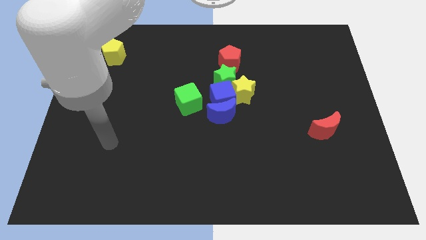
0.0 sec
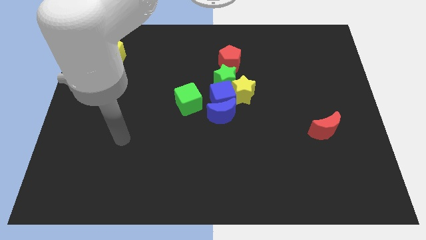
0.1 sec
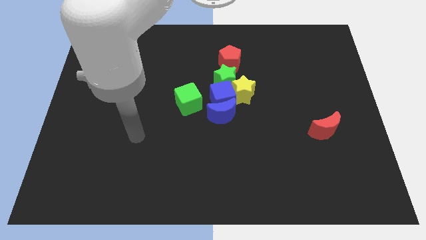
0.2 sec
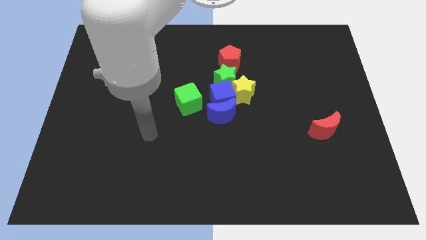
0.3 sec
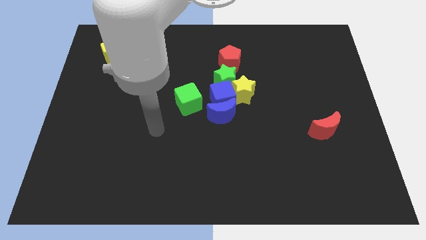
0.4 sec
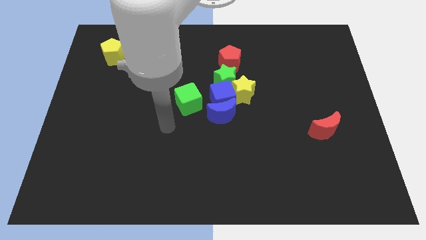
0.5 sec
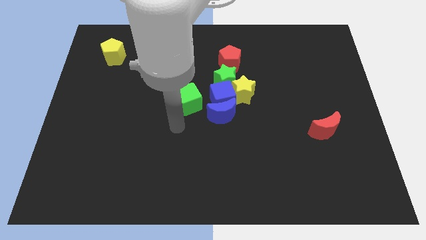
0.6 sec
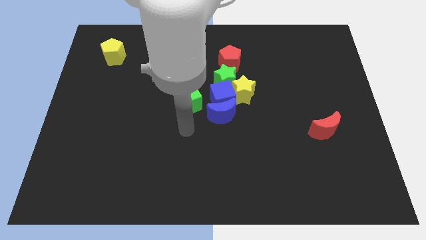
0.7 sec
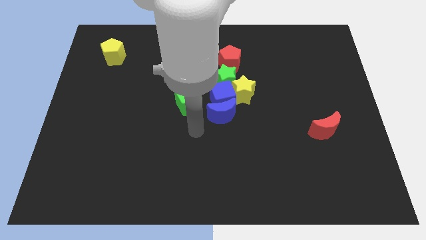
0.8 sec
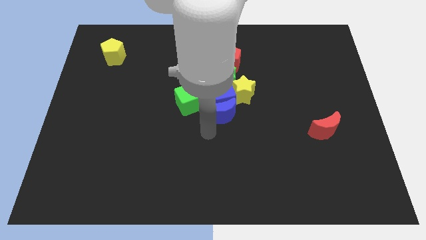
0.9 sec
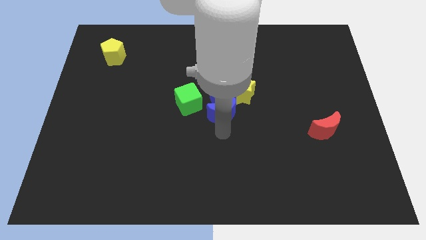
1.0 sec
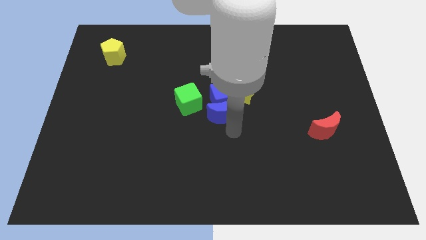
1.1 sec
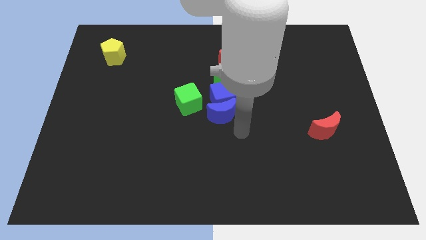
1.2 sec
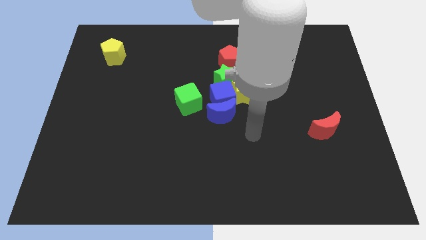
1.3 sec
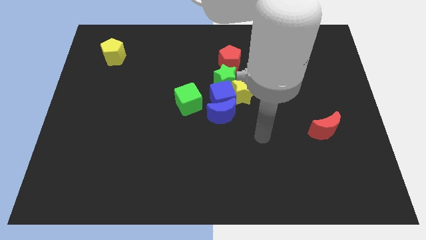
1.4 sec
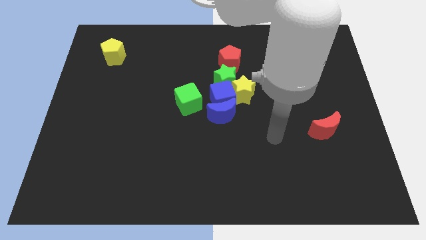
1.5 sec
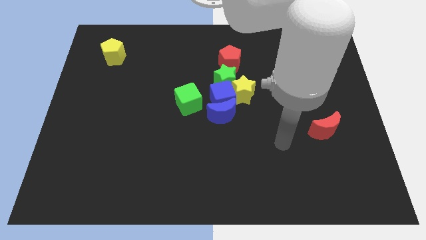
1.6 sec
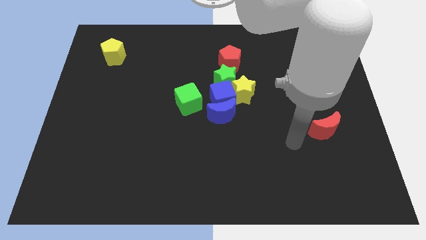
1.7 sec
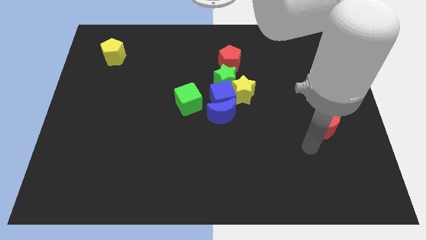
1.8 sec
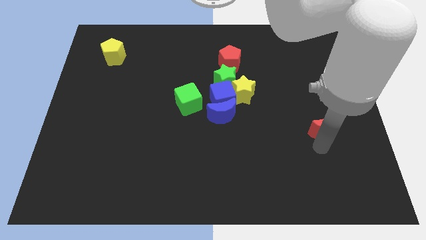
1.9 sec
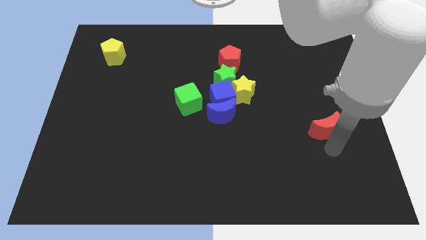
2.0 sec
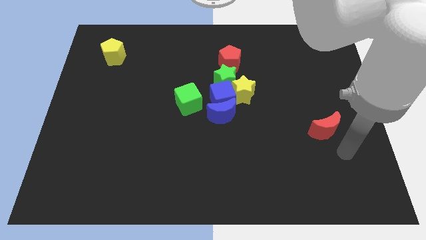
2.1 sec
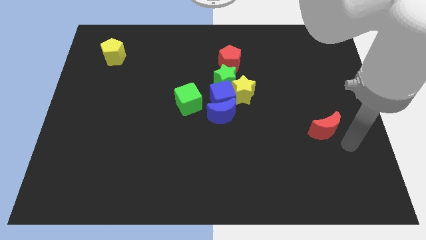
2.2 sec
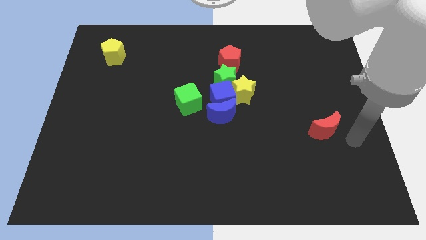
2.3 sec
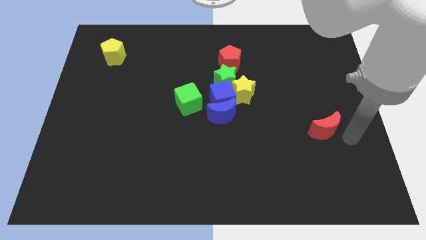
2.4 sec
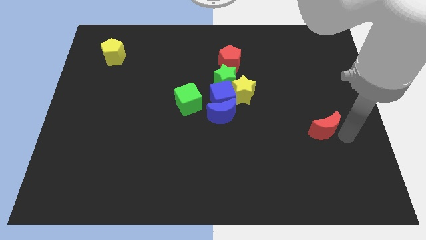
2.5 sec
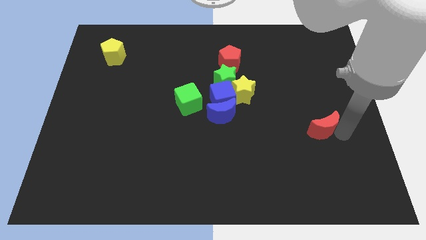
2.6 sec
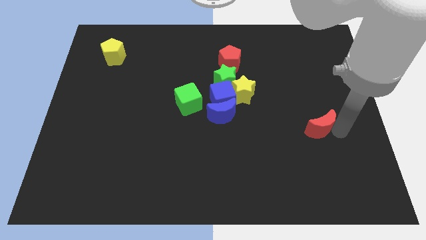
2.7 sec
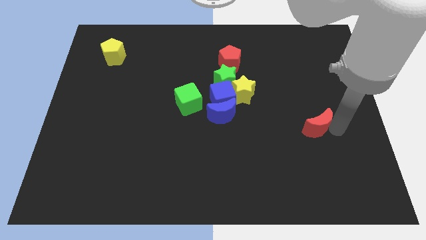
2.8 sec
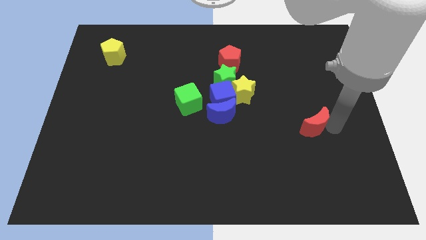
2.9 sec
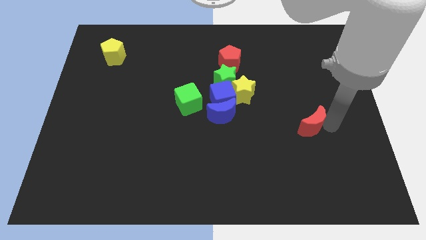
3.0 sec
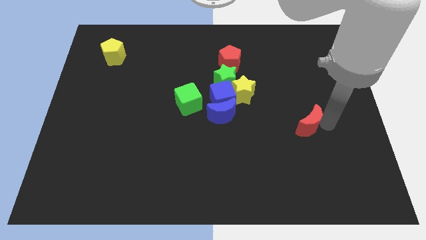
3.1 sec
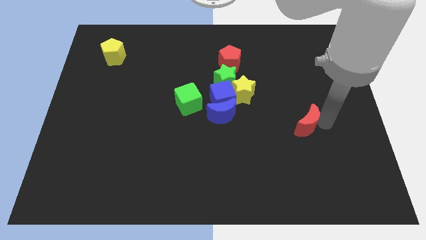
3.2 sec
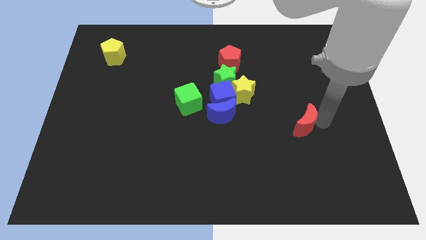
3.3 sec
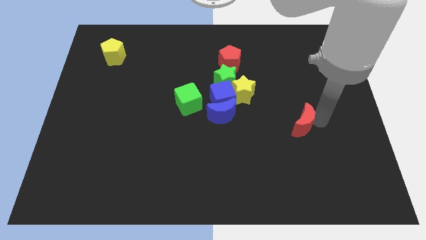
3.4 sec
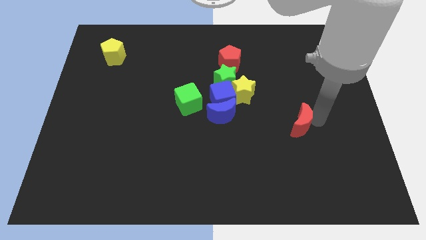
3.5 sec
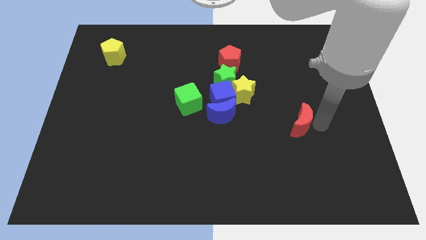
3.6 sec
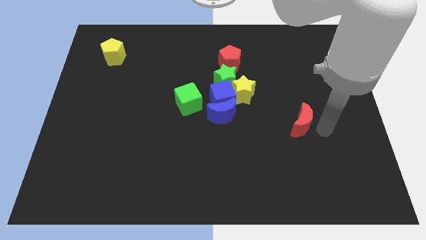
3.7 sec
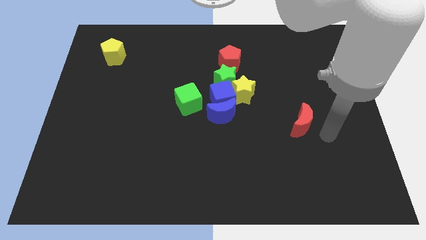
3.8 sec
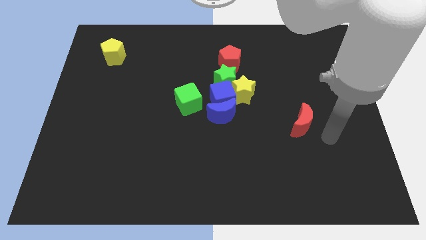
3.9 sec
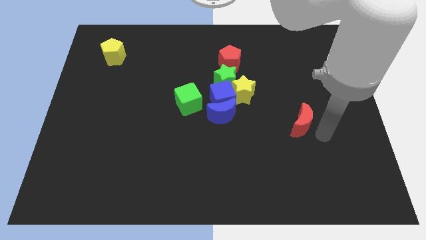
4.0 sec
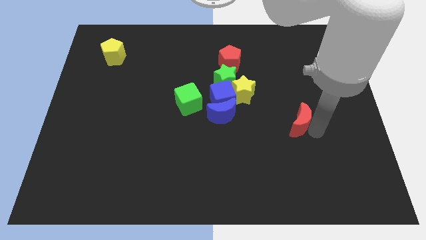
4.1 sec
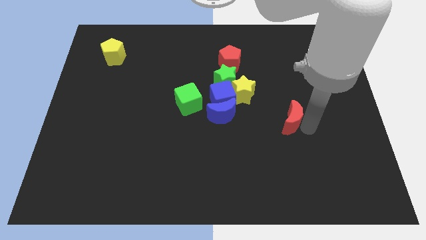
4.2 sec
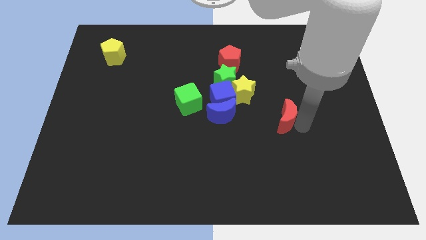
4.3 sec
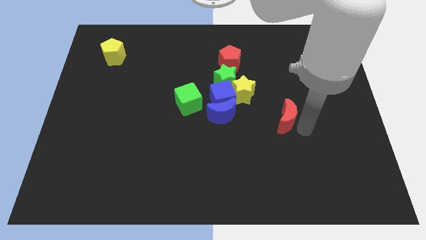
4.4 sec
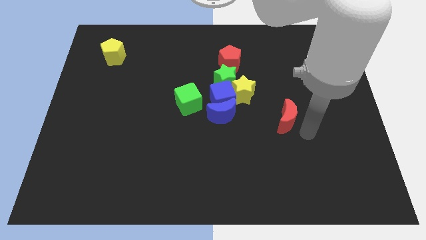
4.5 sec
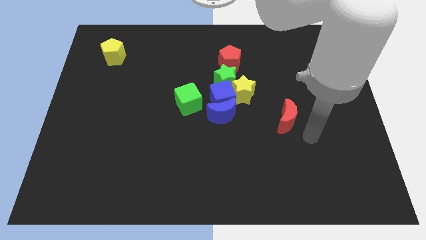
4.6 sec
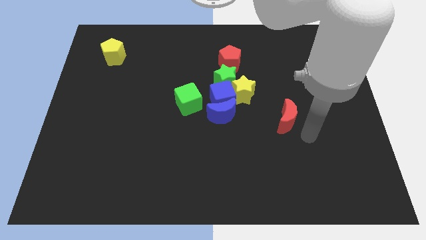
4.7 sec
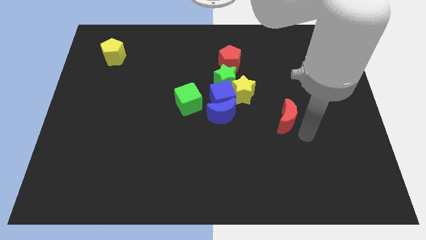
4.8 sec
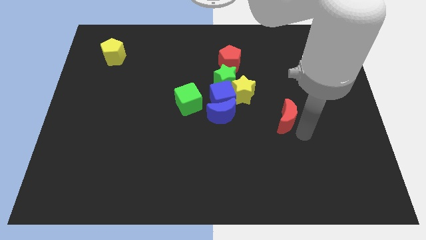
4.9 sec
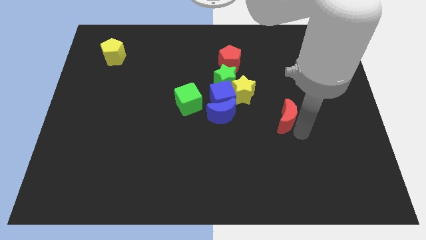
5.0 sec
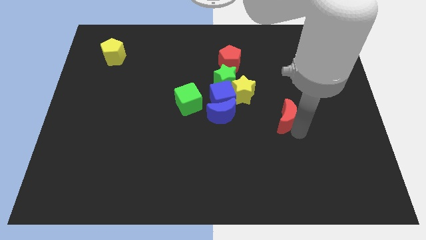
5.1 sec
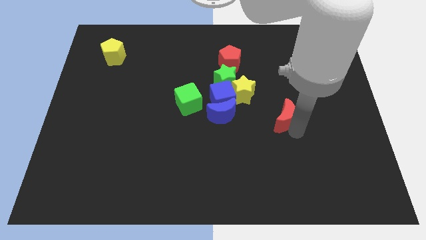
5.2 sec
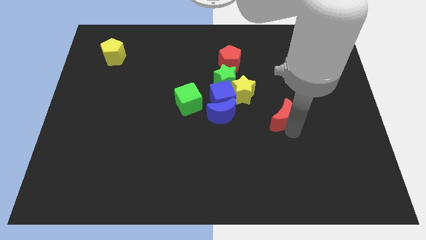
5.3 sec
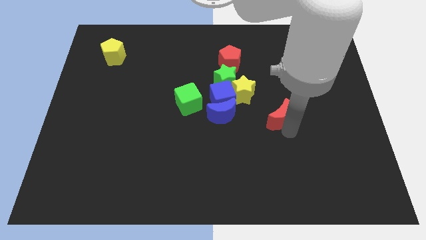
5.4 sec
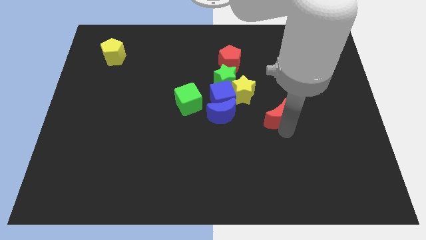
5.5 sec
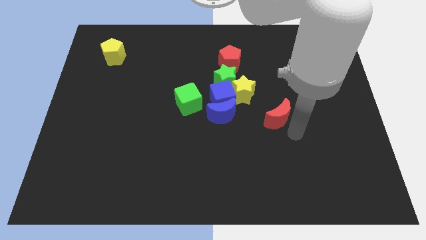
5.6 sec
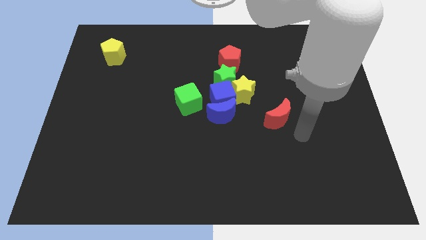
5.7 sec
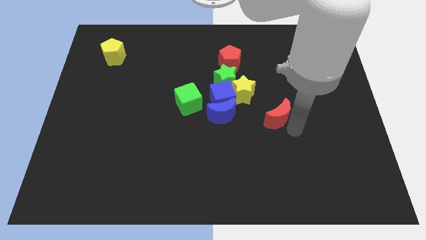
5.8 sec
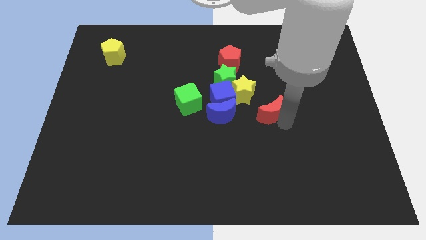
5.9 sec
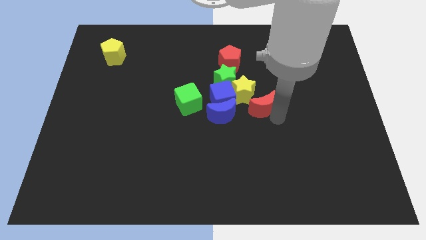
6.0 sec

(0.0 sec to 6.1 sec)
put the red moon to the yellow star

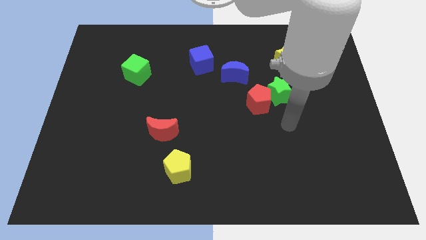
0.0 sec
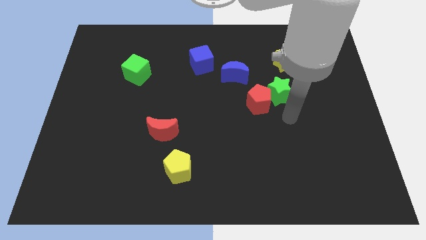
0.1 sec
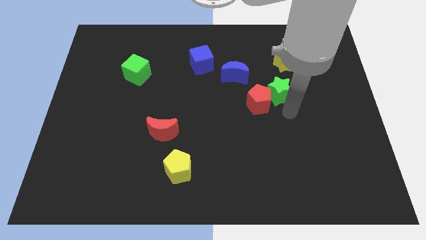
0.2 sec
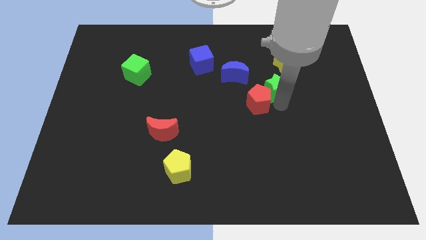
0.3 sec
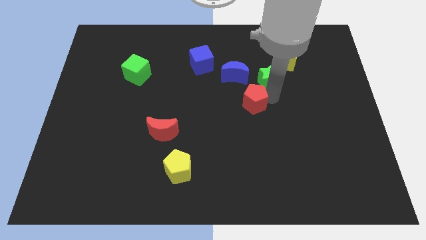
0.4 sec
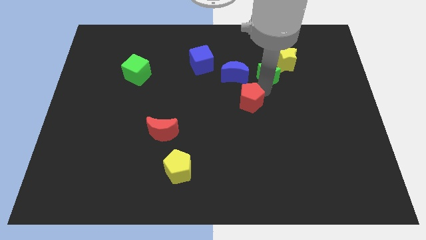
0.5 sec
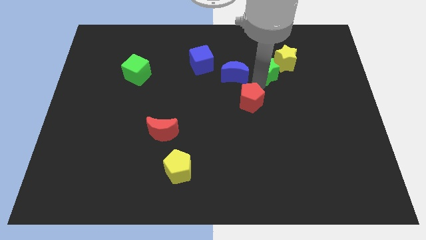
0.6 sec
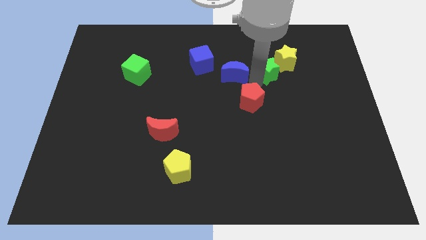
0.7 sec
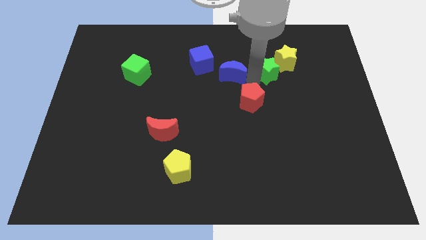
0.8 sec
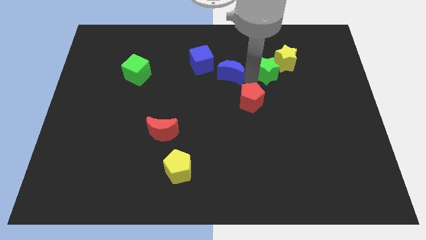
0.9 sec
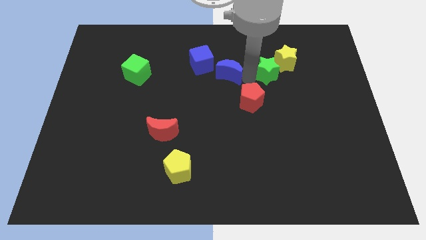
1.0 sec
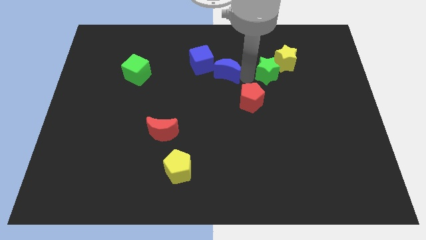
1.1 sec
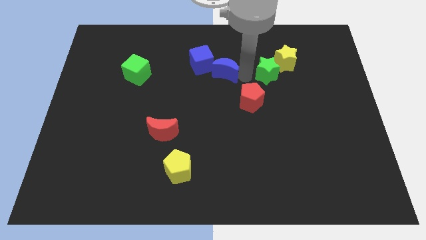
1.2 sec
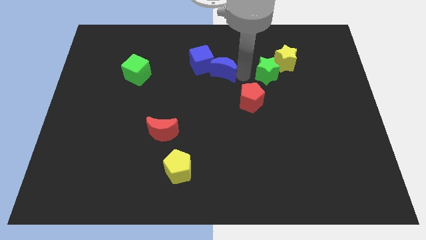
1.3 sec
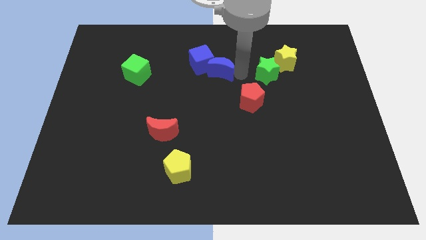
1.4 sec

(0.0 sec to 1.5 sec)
put the blue moon to the blue cube
